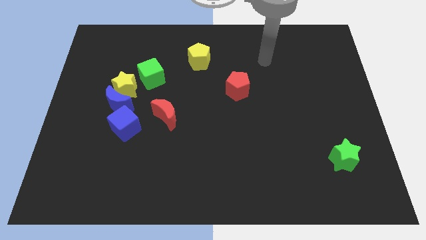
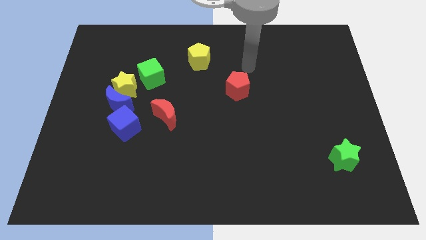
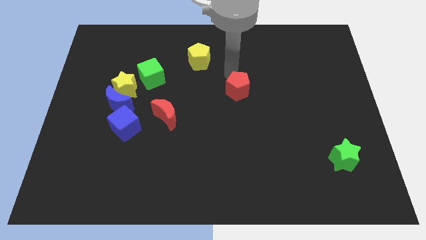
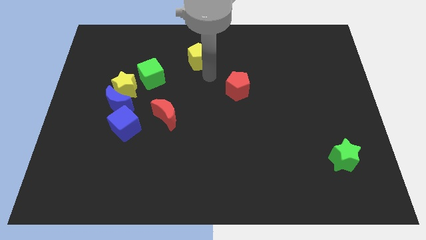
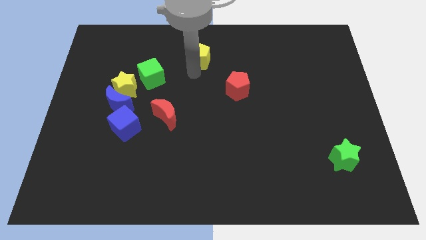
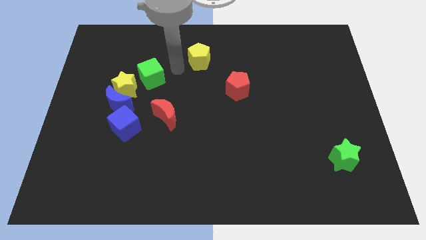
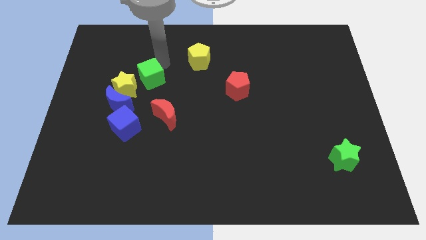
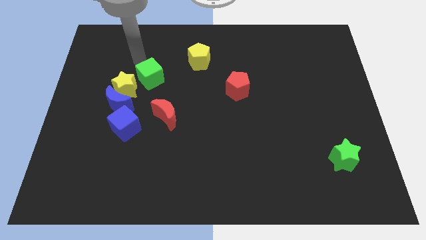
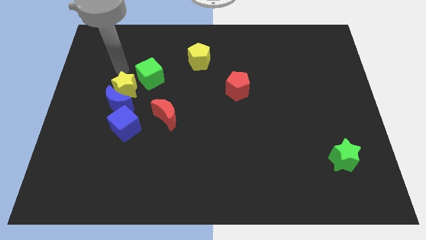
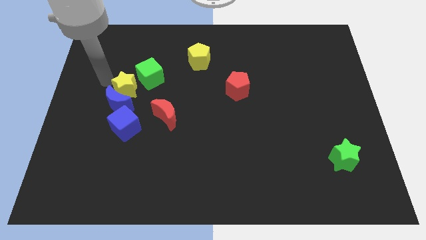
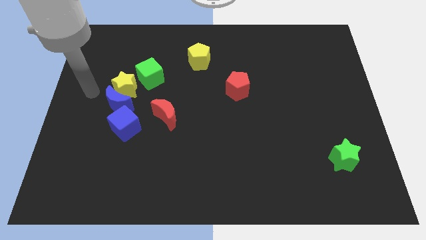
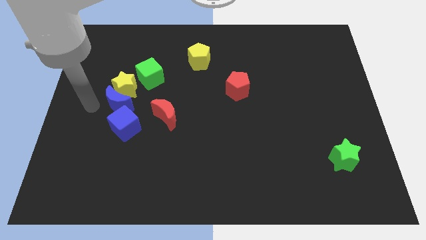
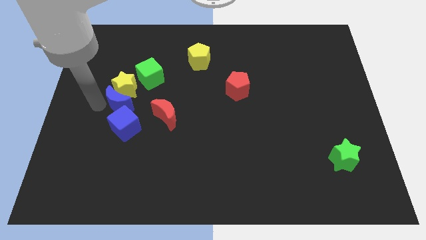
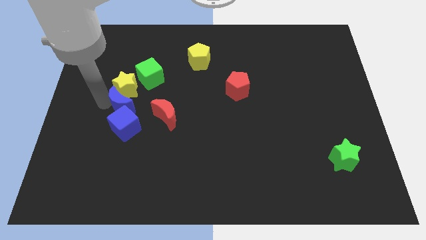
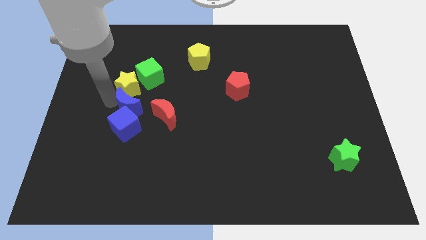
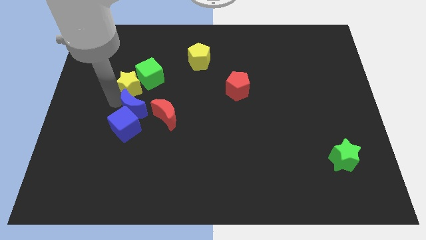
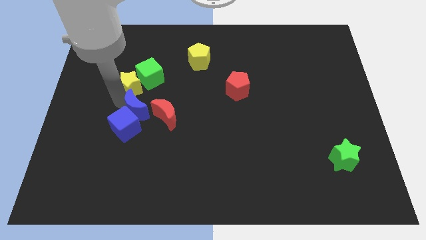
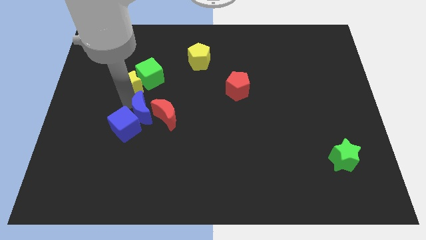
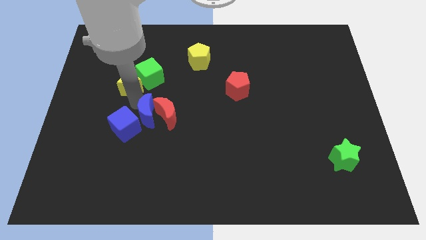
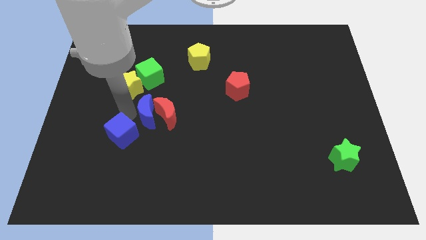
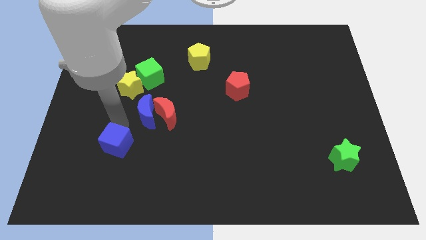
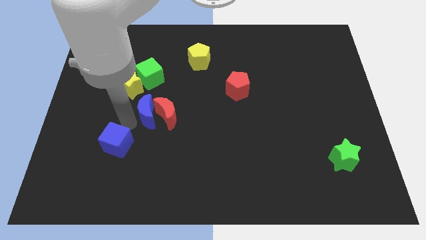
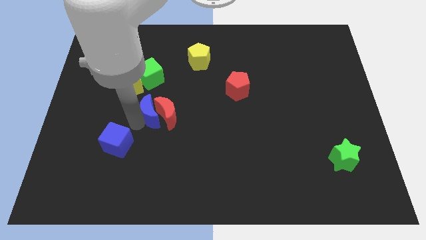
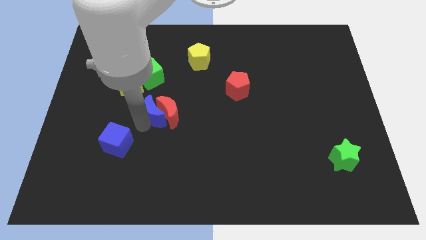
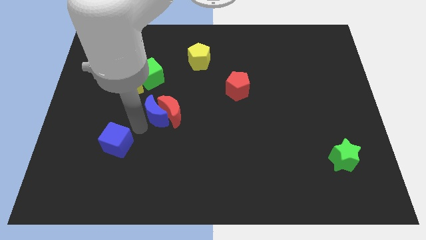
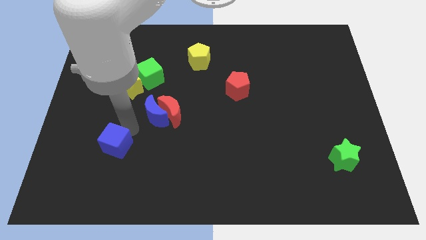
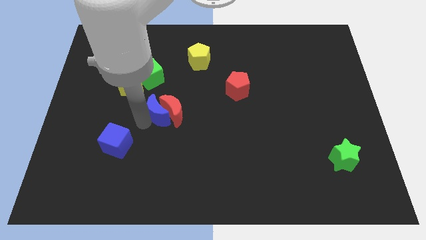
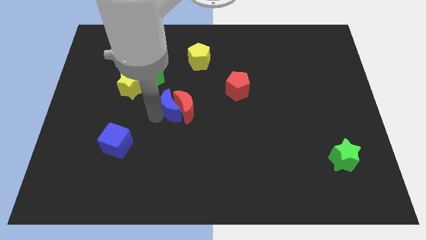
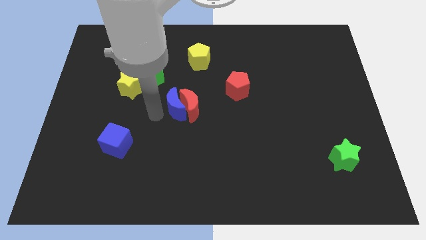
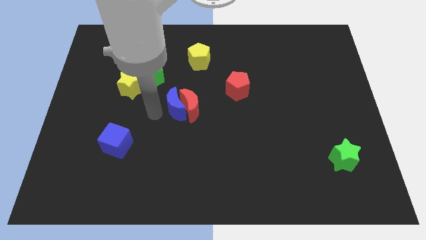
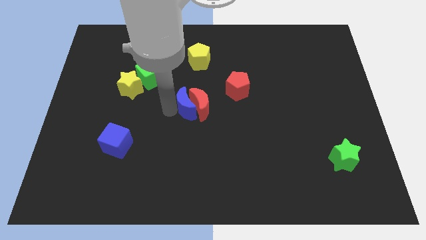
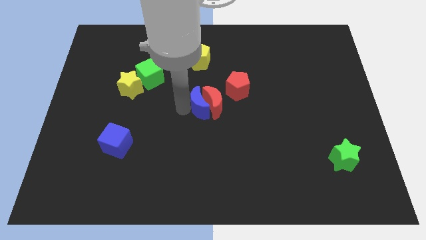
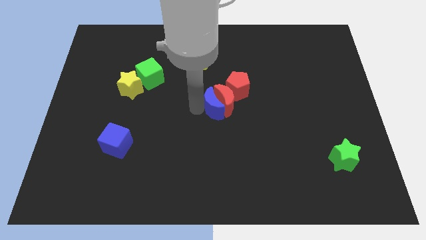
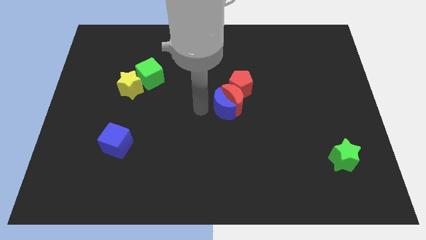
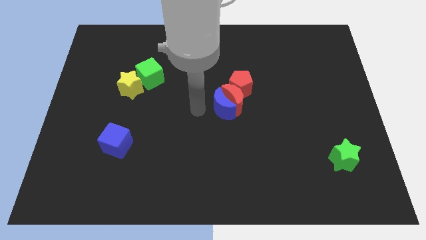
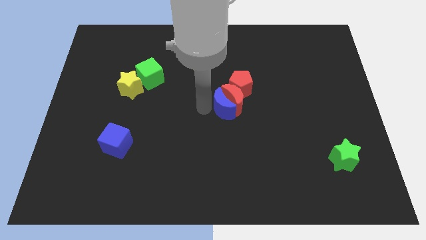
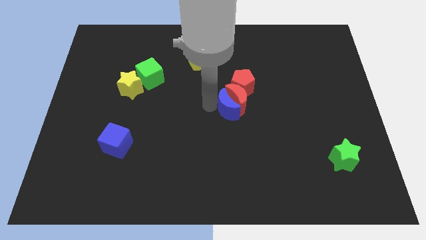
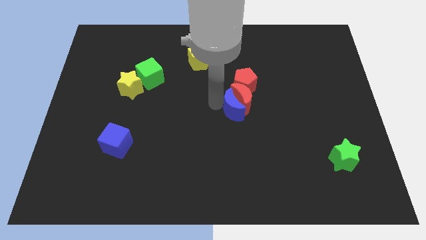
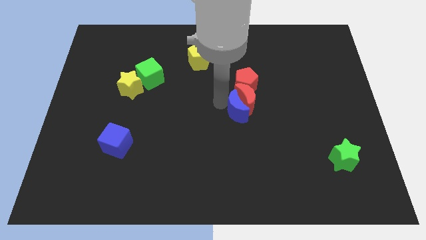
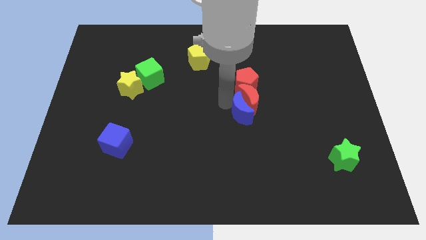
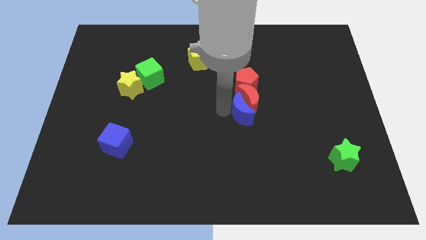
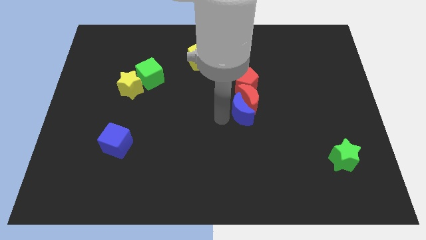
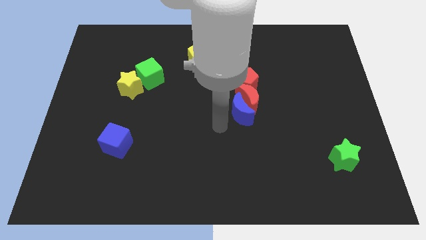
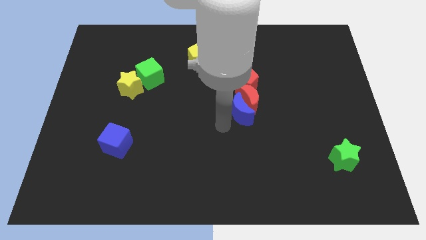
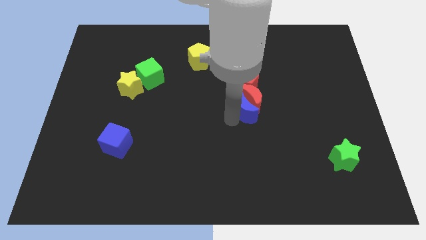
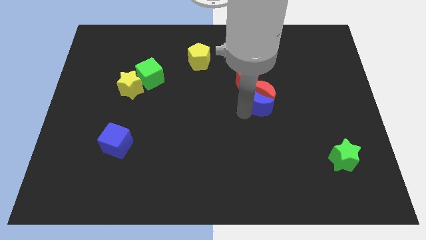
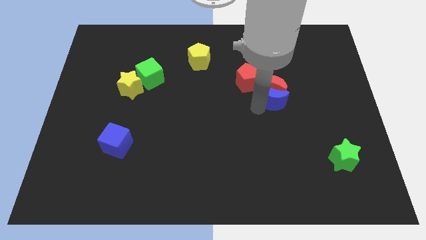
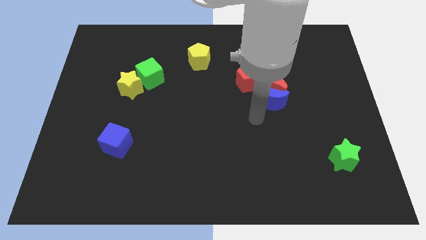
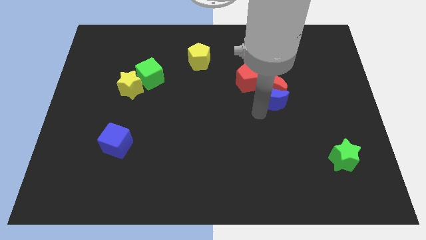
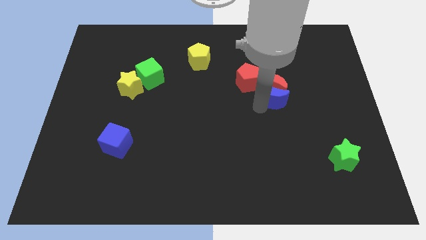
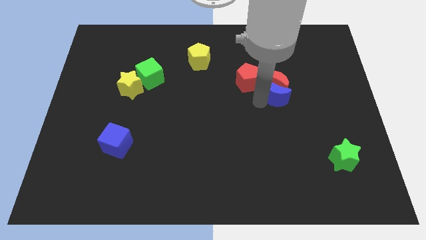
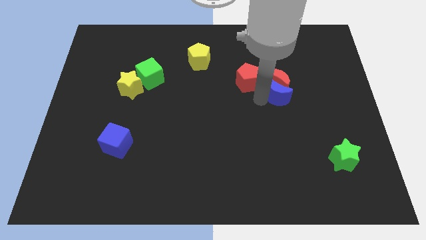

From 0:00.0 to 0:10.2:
move the blue moon to the right of the red pentagon

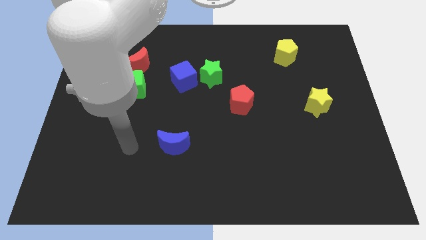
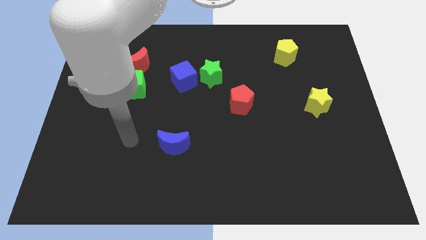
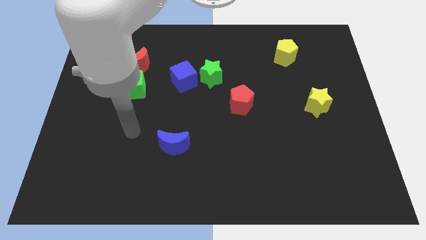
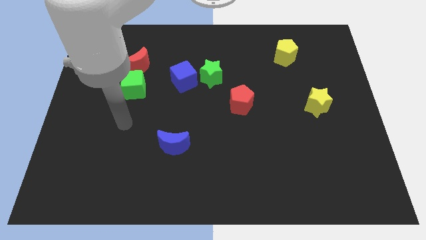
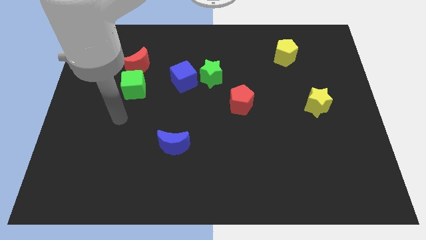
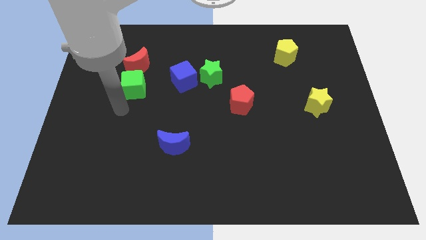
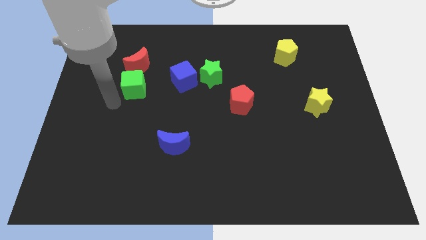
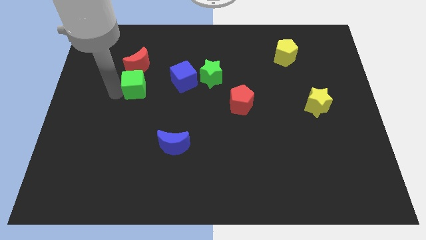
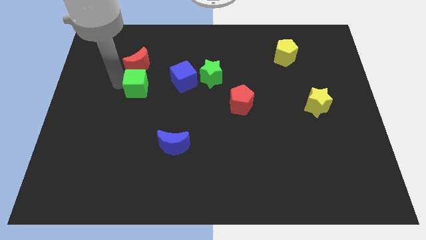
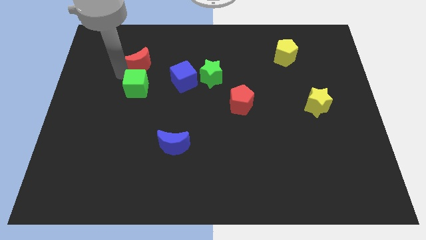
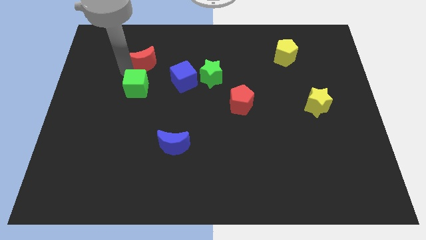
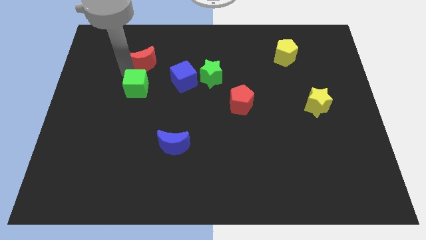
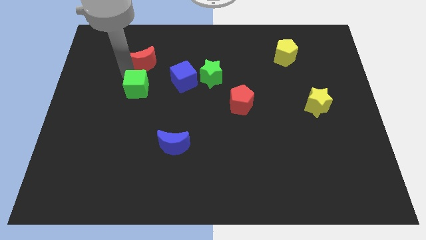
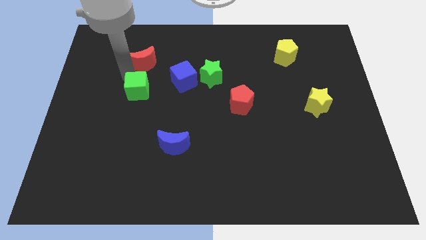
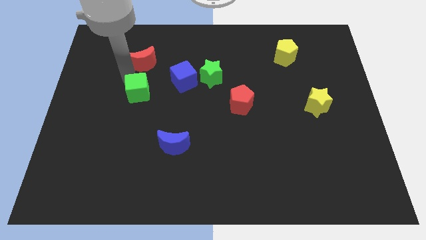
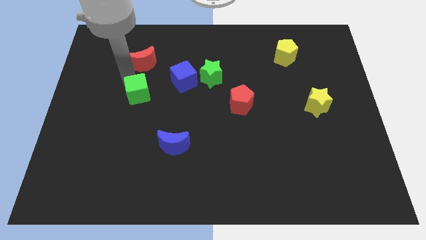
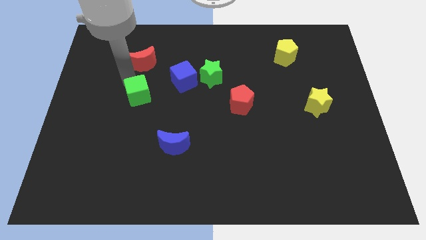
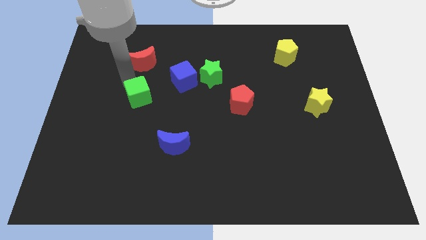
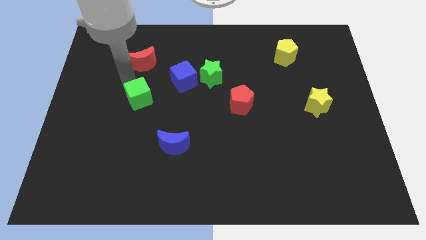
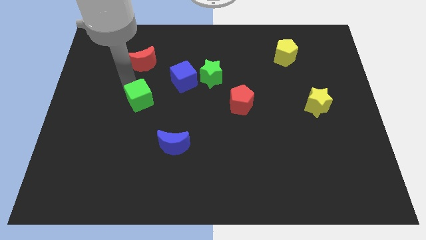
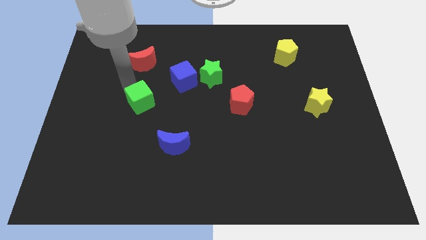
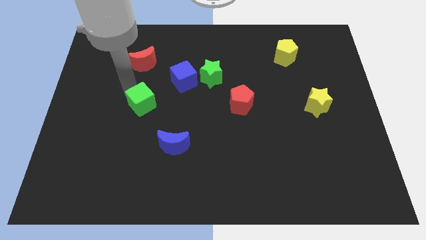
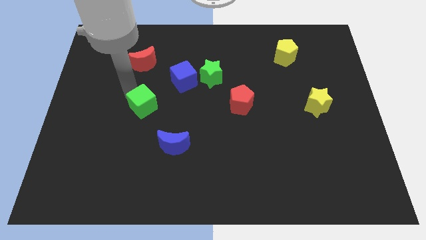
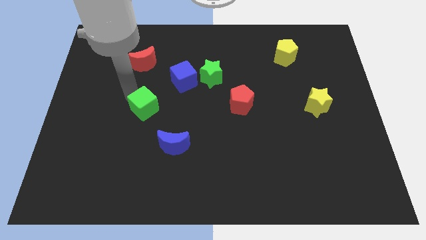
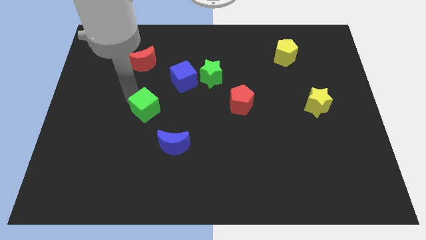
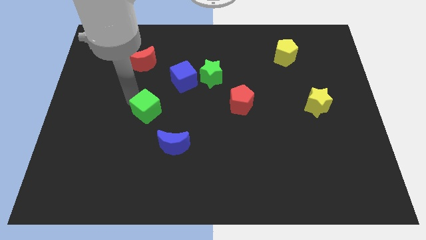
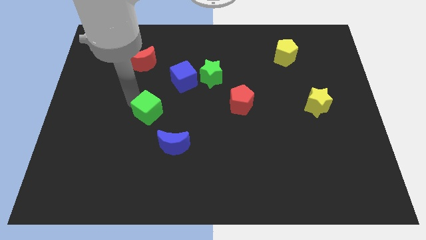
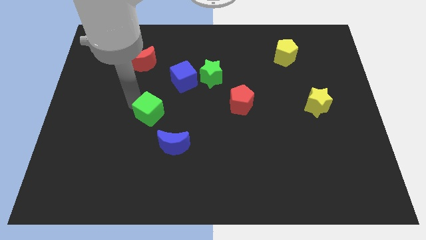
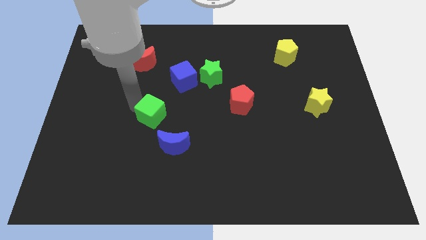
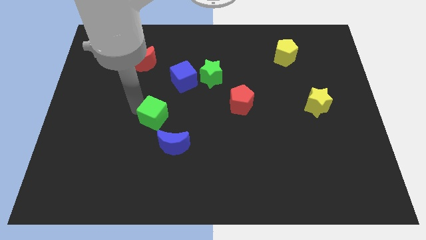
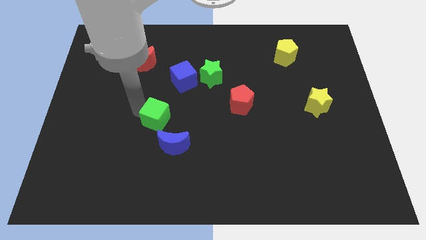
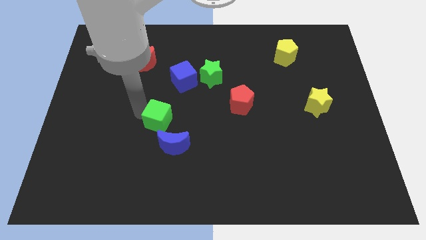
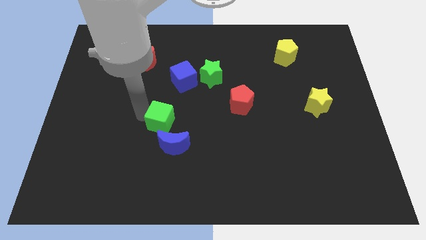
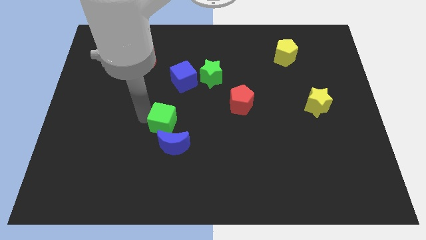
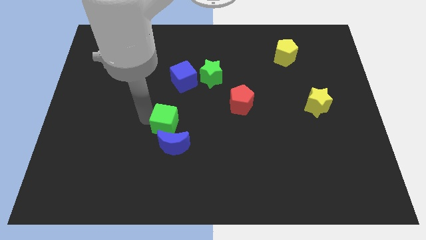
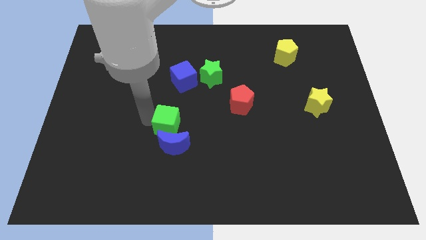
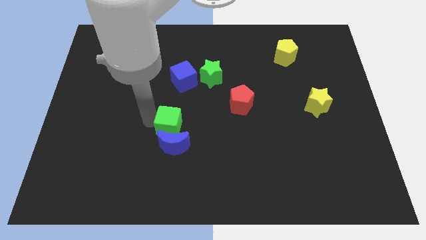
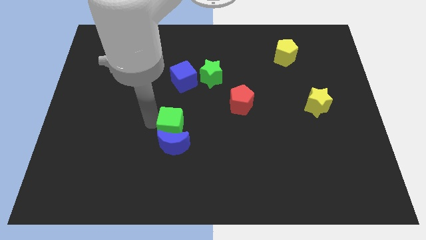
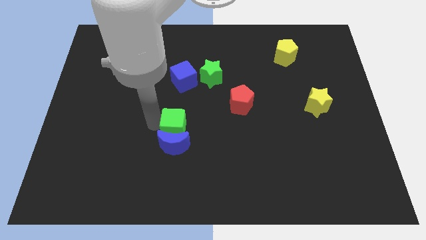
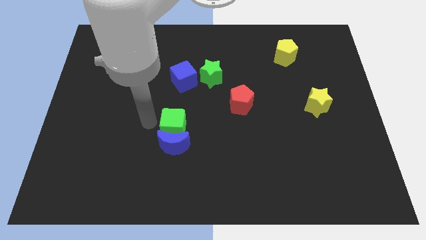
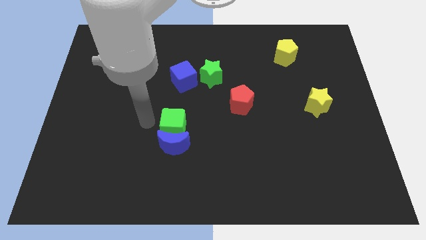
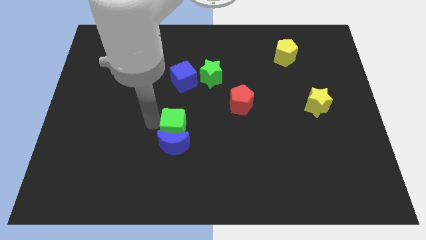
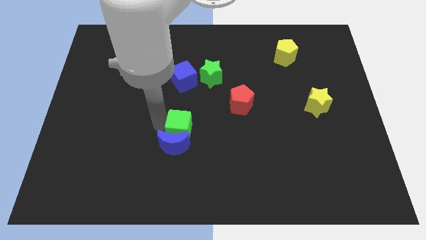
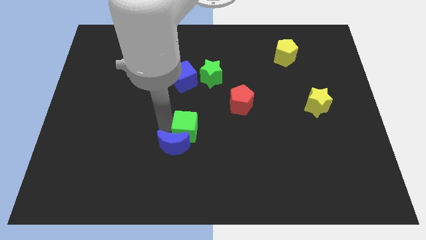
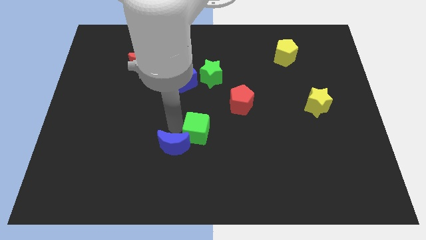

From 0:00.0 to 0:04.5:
put the green cube to the right of the blue moon
